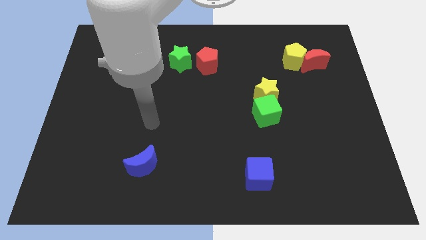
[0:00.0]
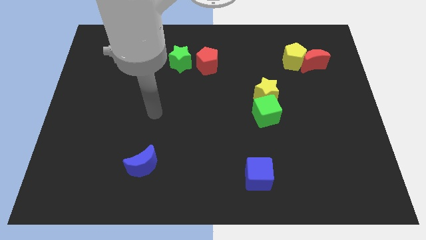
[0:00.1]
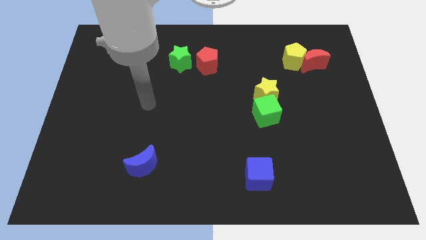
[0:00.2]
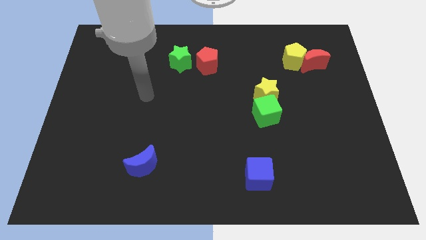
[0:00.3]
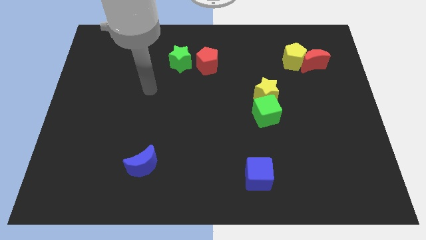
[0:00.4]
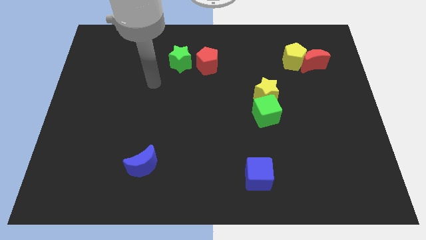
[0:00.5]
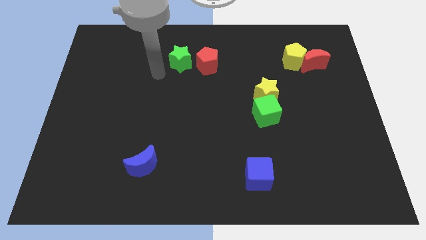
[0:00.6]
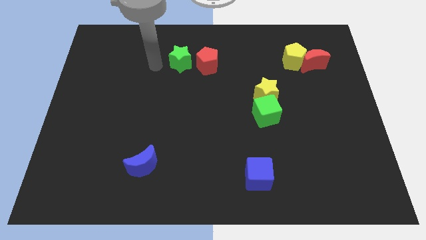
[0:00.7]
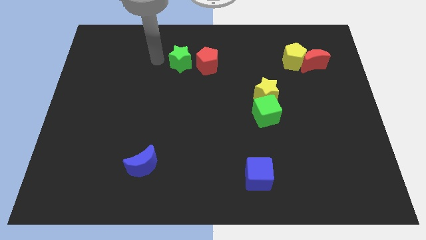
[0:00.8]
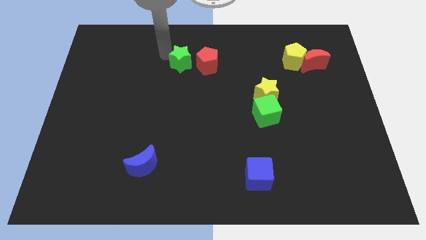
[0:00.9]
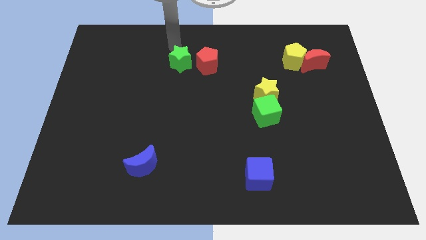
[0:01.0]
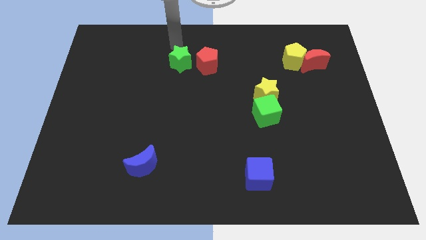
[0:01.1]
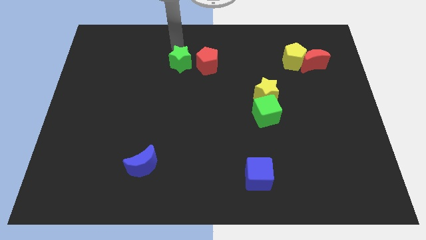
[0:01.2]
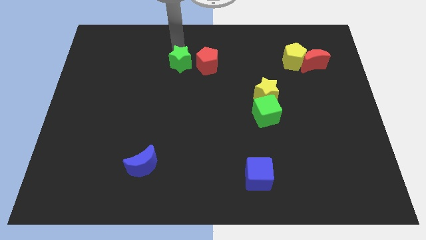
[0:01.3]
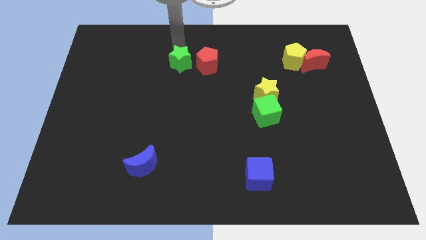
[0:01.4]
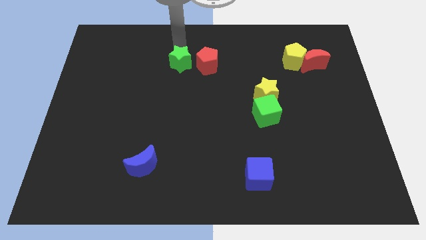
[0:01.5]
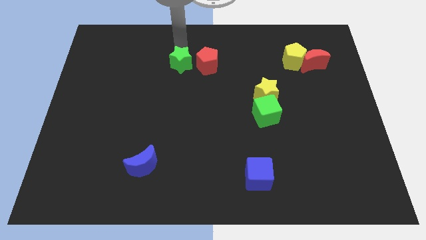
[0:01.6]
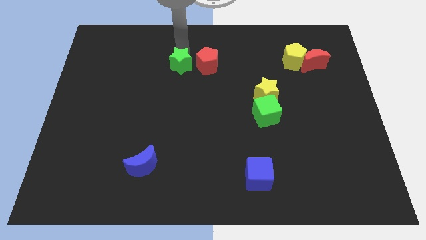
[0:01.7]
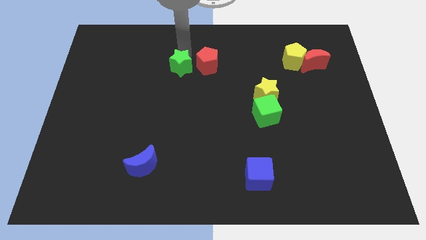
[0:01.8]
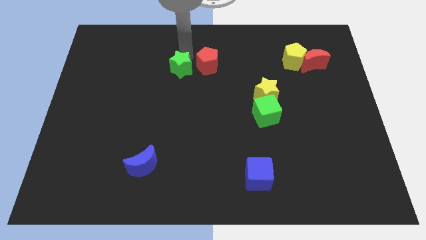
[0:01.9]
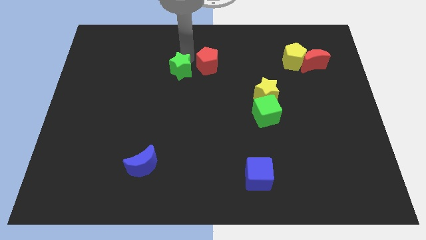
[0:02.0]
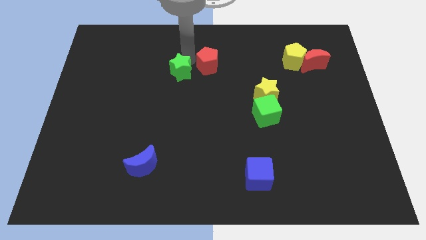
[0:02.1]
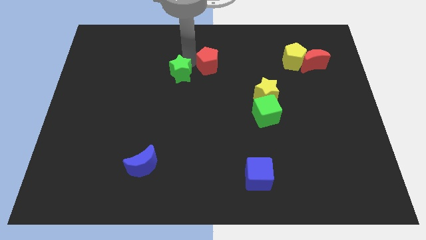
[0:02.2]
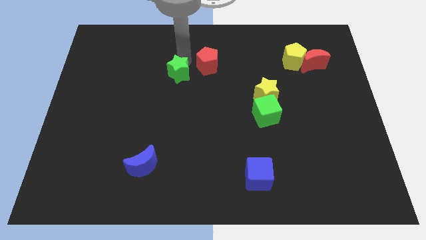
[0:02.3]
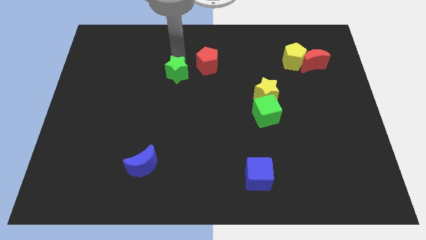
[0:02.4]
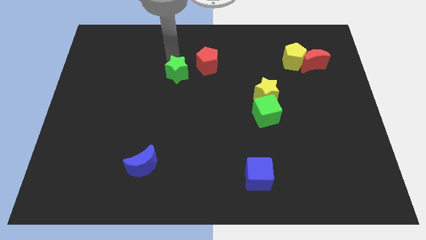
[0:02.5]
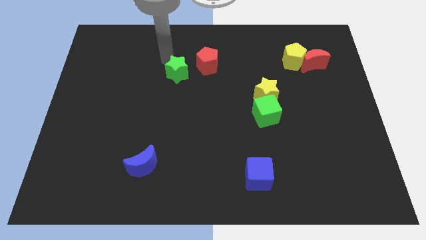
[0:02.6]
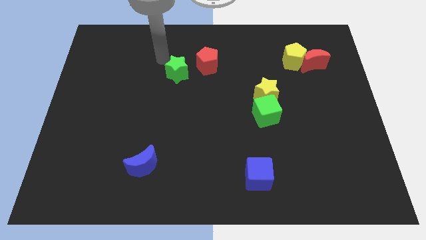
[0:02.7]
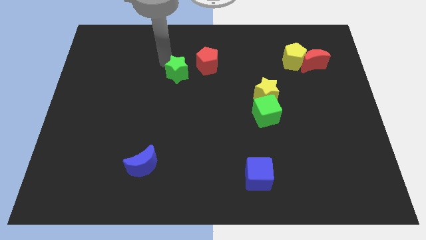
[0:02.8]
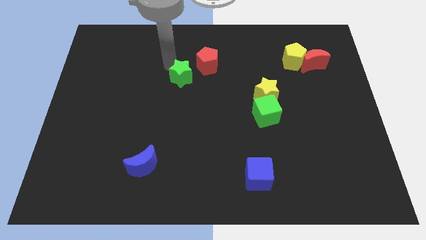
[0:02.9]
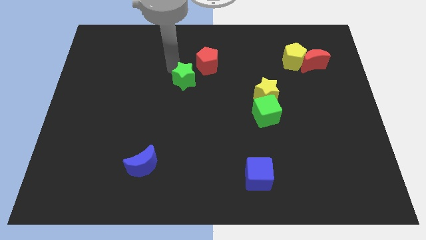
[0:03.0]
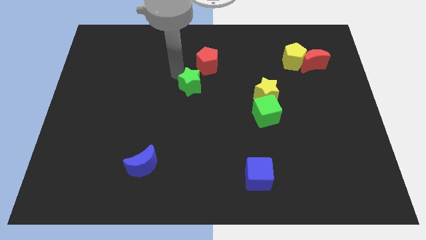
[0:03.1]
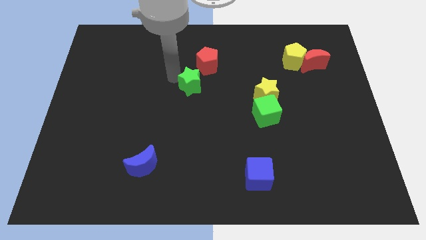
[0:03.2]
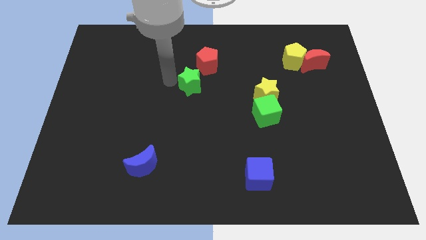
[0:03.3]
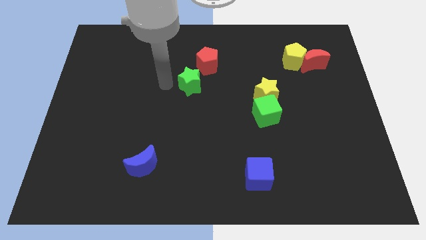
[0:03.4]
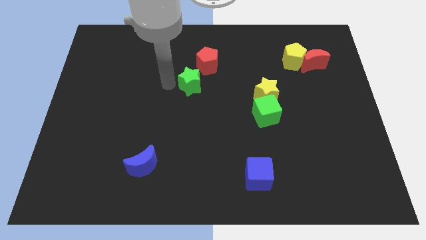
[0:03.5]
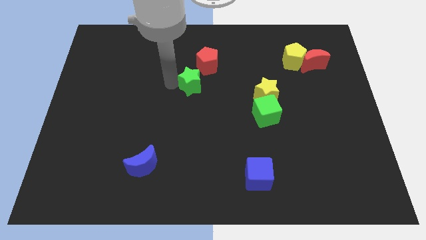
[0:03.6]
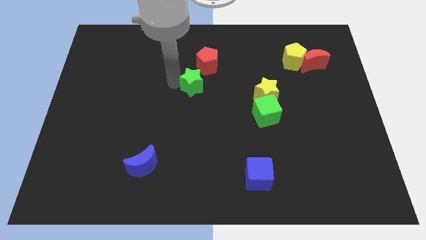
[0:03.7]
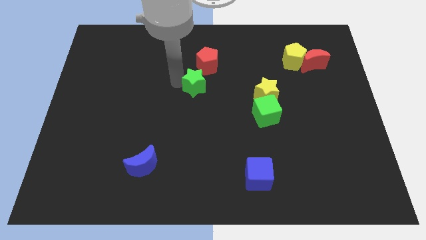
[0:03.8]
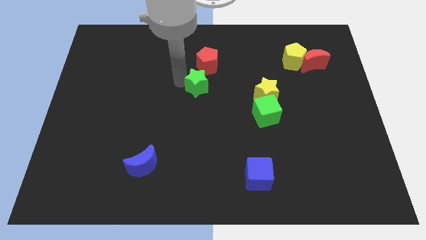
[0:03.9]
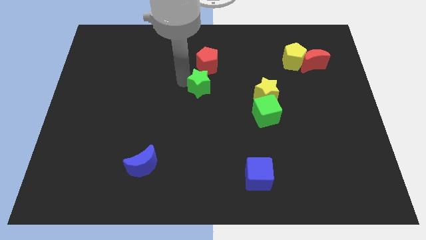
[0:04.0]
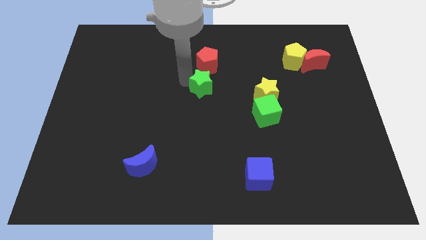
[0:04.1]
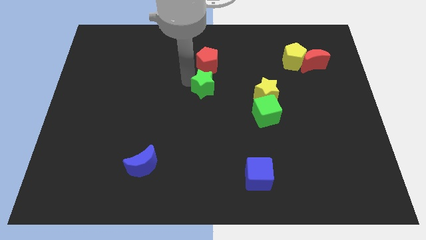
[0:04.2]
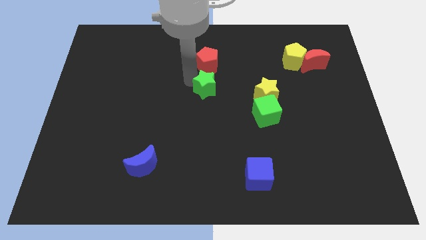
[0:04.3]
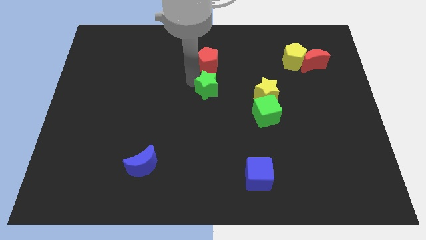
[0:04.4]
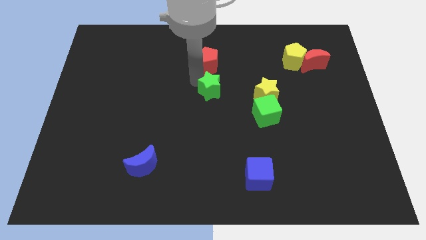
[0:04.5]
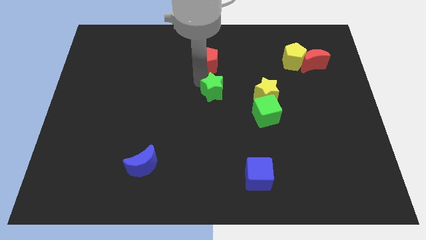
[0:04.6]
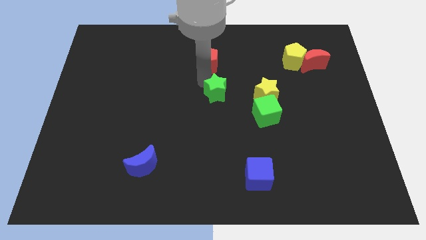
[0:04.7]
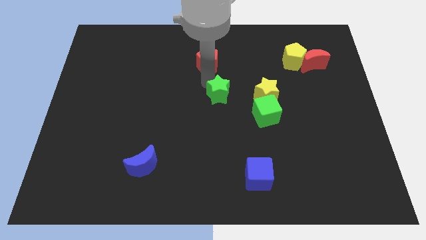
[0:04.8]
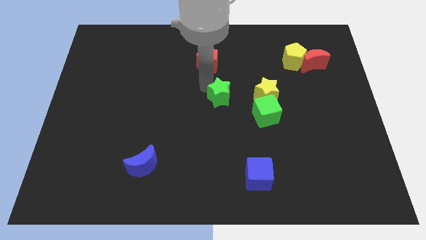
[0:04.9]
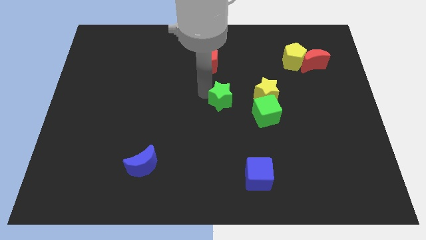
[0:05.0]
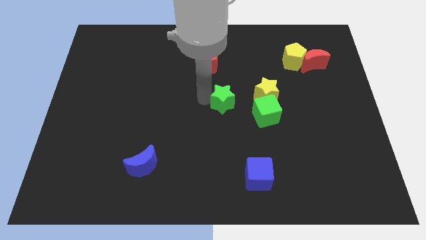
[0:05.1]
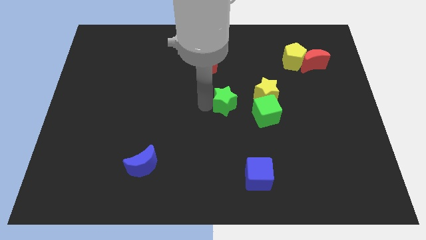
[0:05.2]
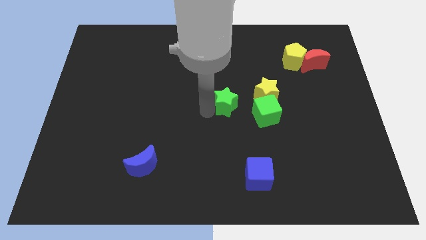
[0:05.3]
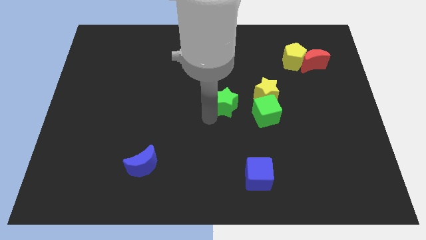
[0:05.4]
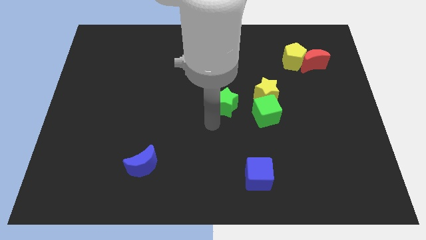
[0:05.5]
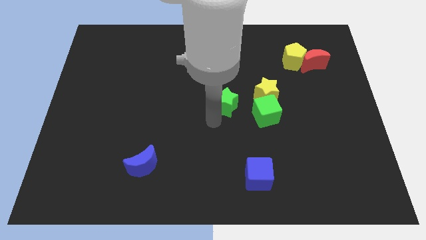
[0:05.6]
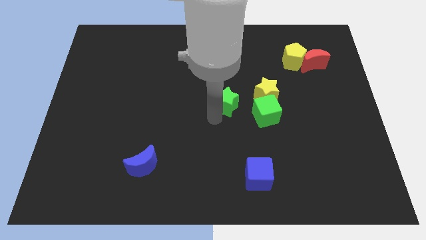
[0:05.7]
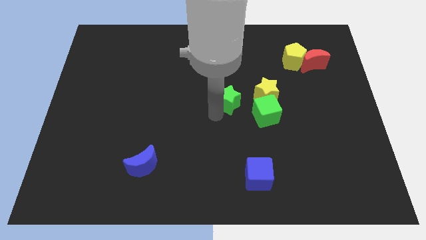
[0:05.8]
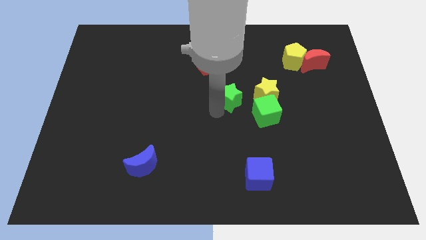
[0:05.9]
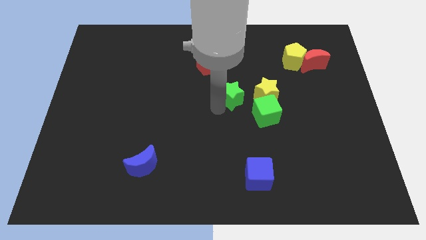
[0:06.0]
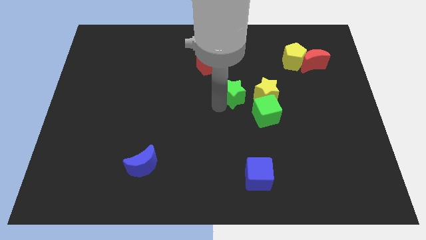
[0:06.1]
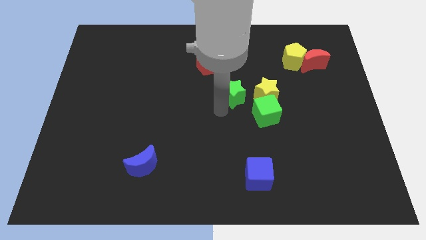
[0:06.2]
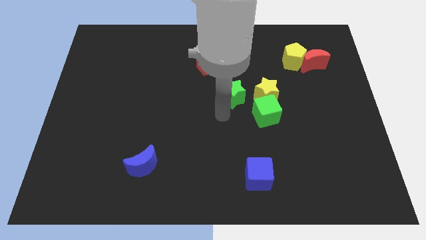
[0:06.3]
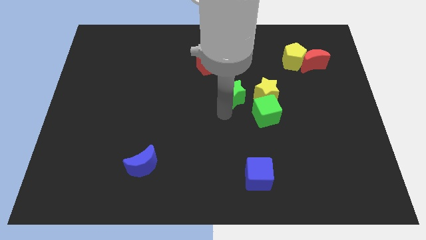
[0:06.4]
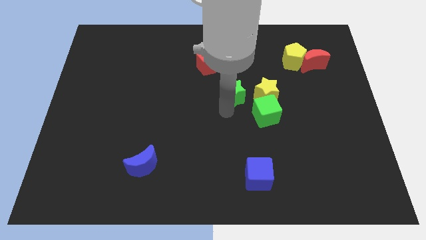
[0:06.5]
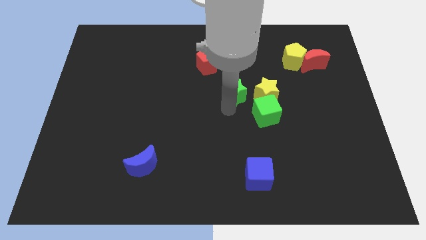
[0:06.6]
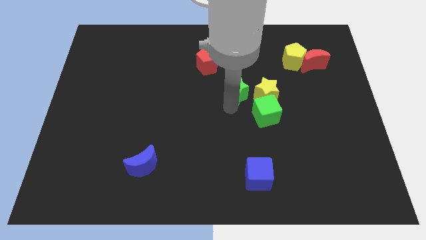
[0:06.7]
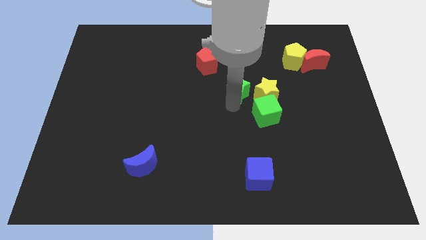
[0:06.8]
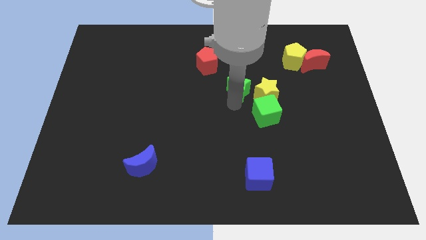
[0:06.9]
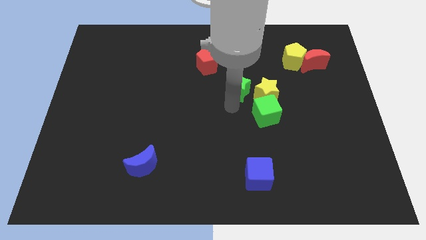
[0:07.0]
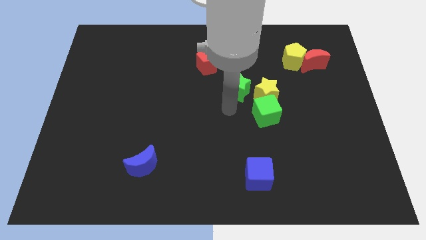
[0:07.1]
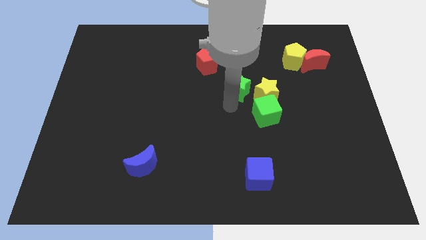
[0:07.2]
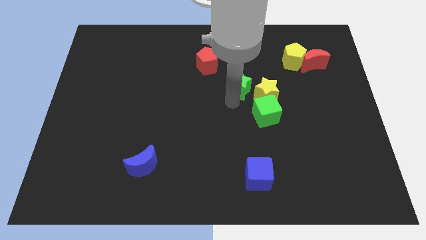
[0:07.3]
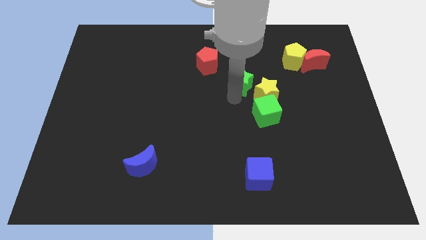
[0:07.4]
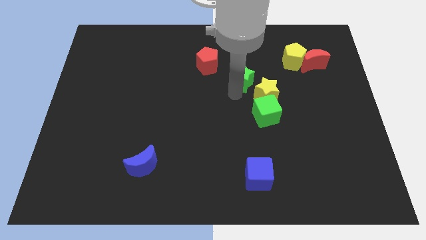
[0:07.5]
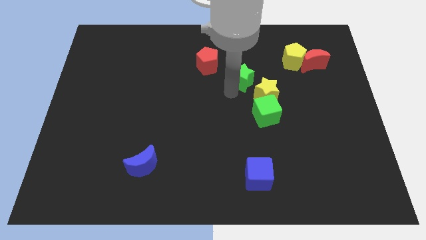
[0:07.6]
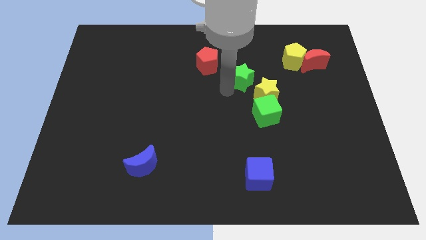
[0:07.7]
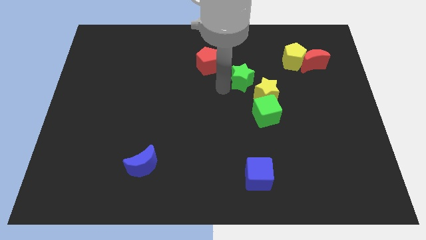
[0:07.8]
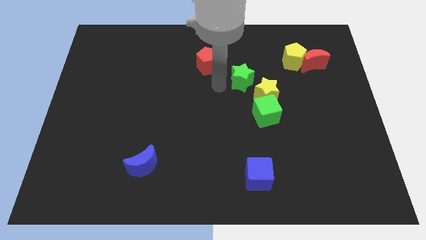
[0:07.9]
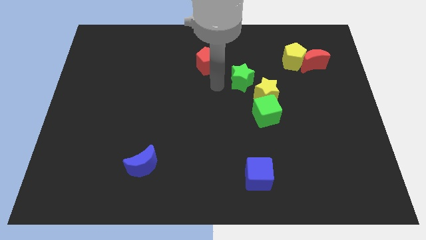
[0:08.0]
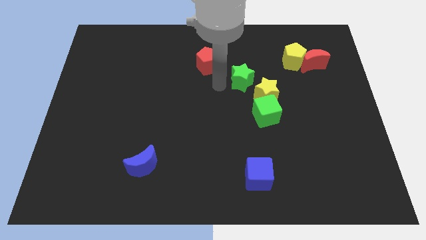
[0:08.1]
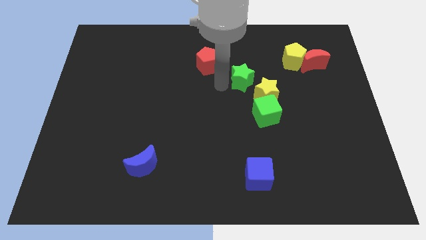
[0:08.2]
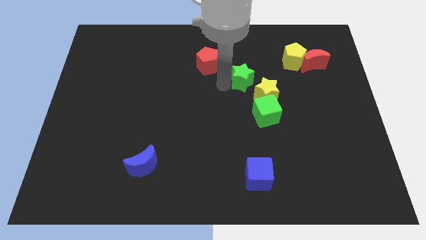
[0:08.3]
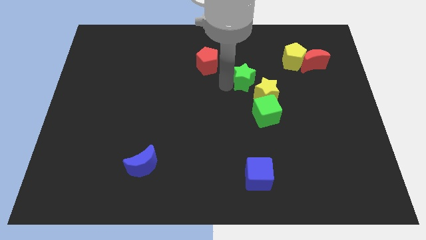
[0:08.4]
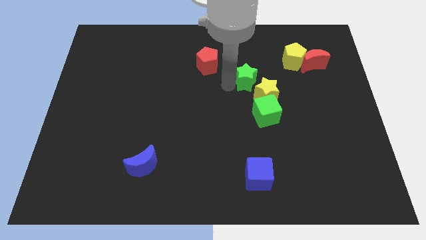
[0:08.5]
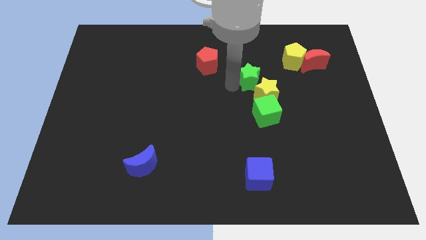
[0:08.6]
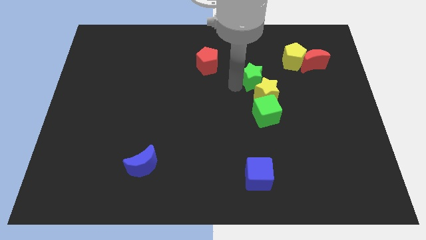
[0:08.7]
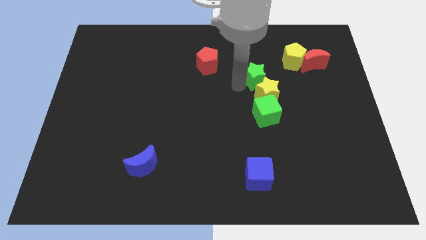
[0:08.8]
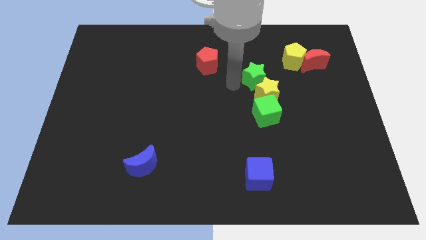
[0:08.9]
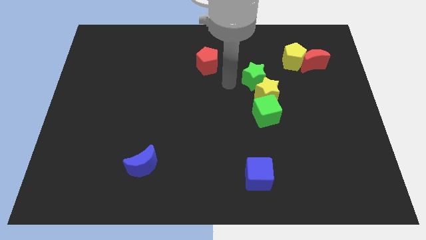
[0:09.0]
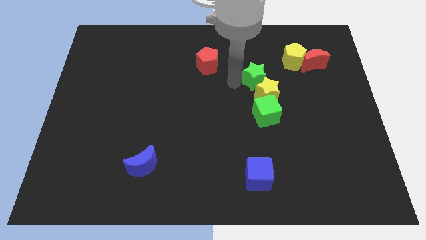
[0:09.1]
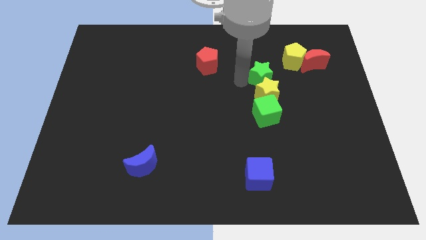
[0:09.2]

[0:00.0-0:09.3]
put the green star diagonally down and to the left of the yellow pentagon
